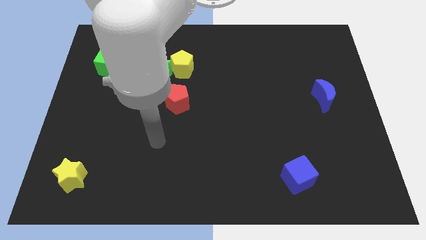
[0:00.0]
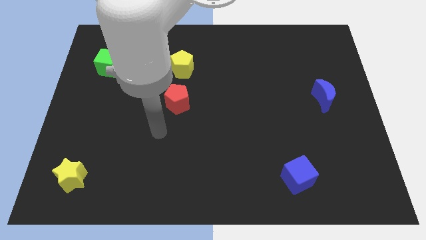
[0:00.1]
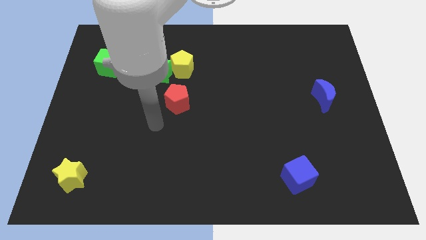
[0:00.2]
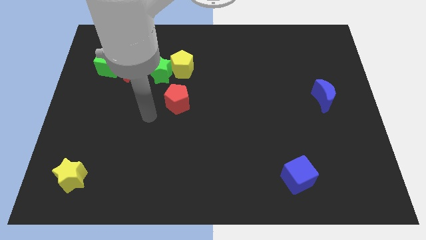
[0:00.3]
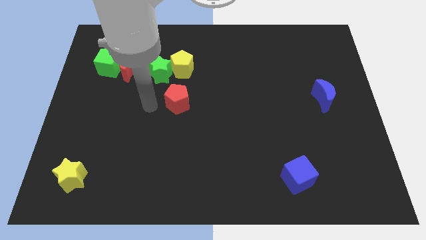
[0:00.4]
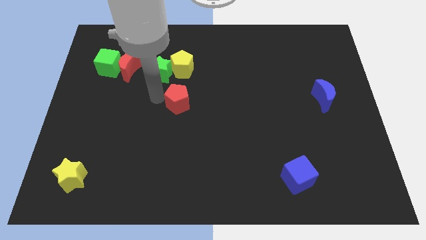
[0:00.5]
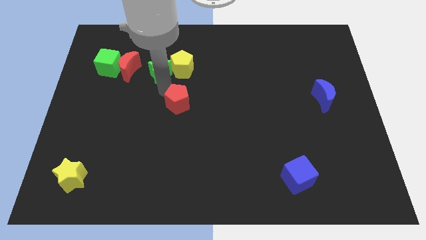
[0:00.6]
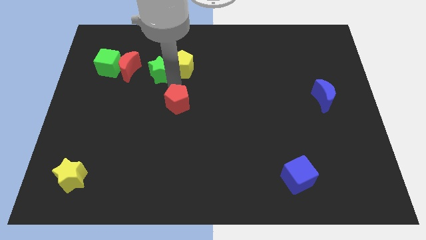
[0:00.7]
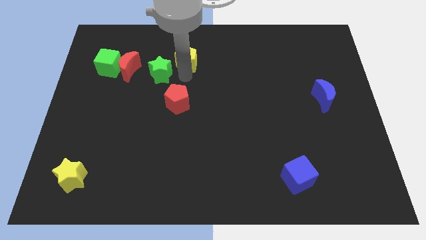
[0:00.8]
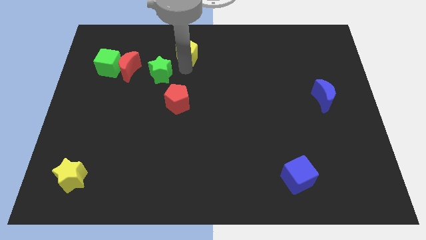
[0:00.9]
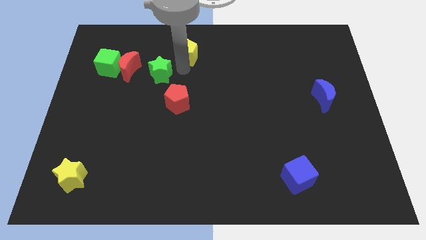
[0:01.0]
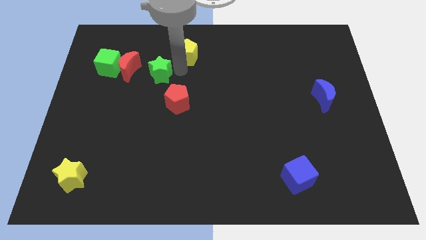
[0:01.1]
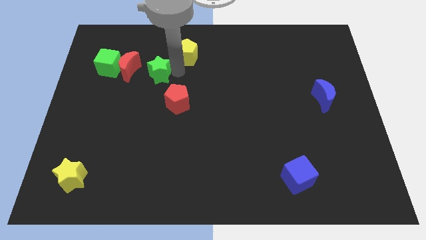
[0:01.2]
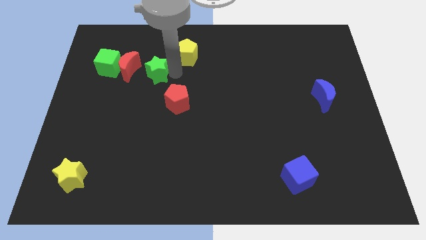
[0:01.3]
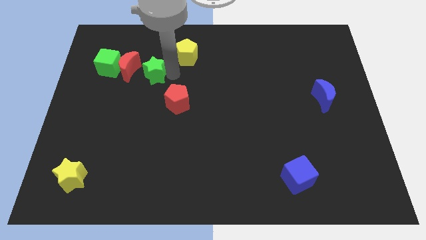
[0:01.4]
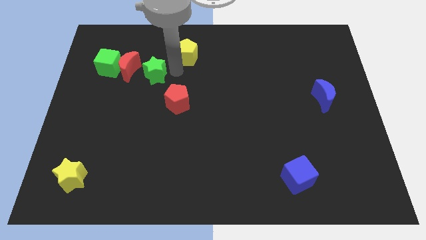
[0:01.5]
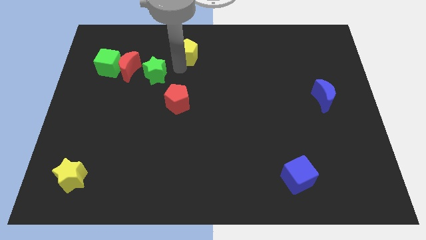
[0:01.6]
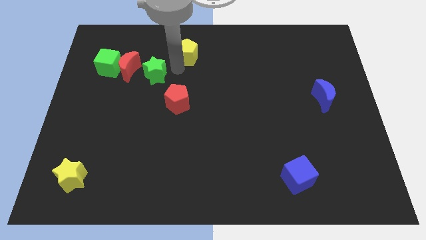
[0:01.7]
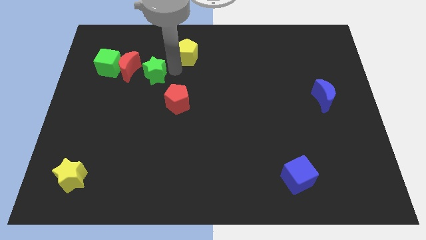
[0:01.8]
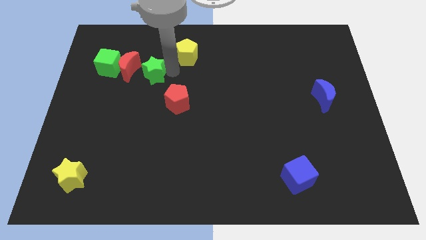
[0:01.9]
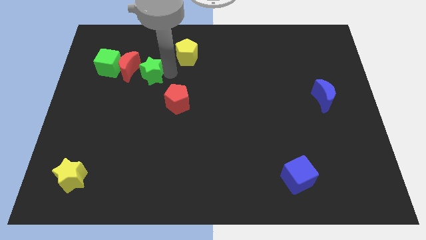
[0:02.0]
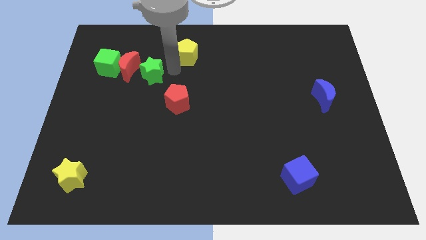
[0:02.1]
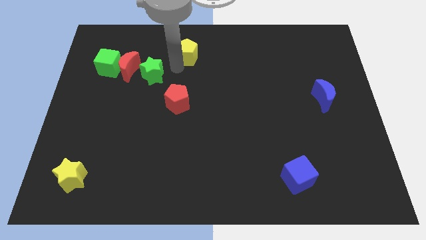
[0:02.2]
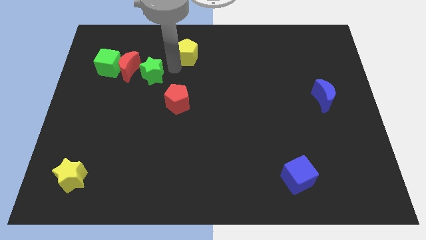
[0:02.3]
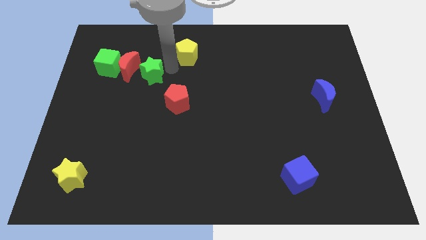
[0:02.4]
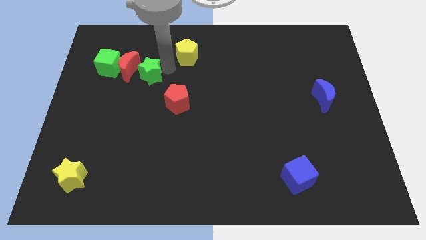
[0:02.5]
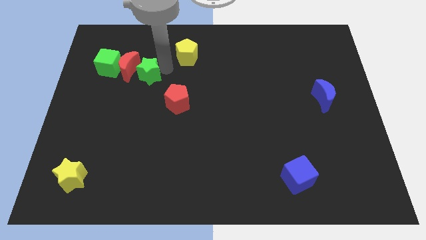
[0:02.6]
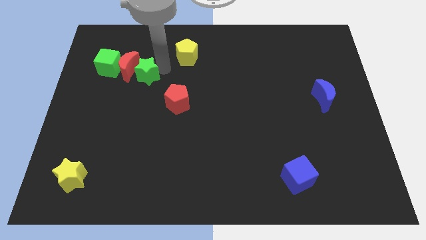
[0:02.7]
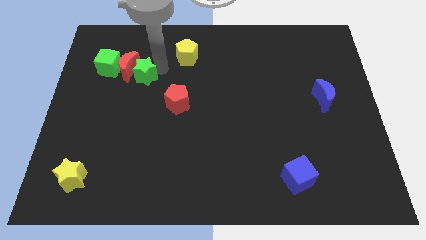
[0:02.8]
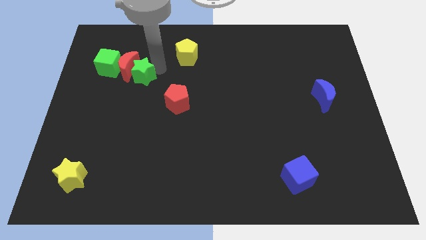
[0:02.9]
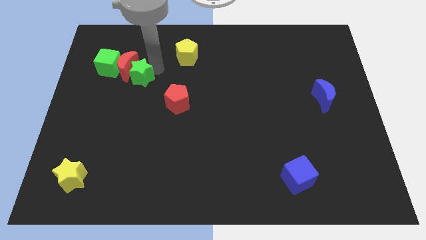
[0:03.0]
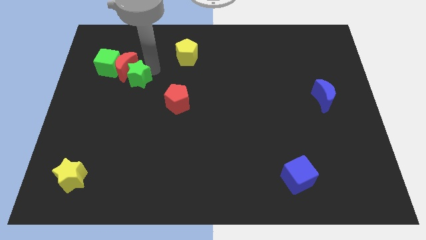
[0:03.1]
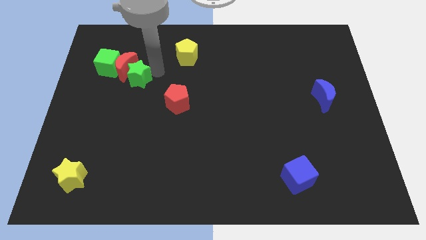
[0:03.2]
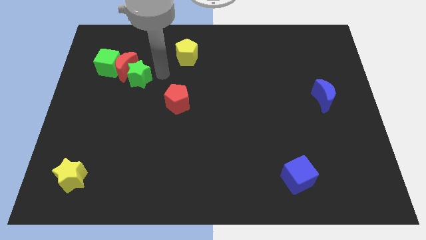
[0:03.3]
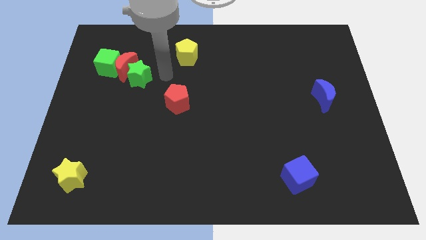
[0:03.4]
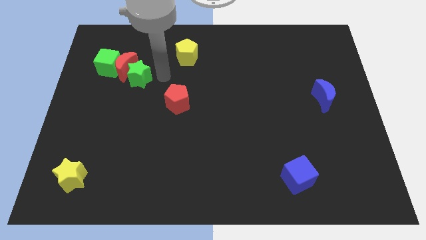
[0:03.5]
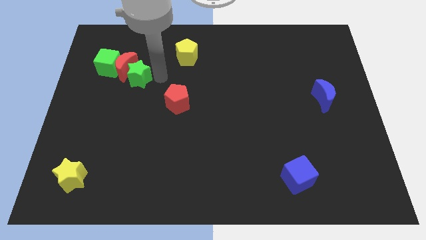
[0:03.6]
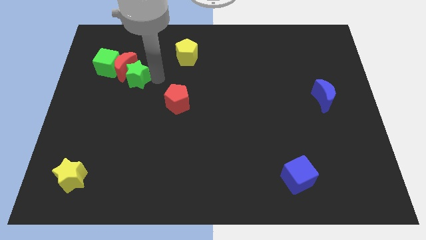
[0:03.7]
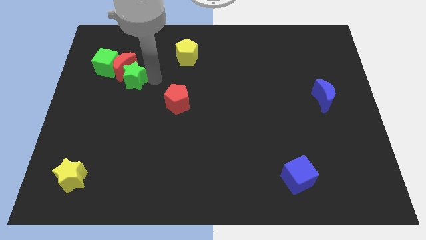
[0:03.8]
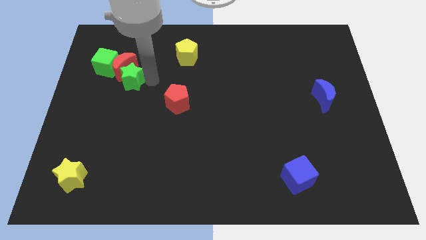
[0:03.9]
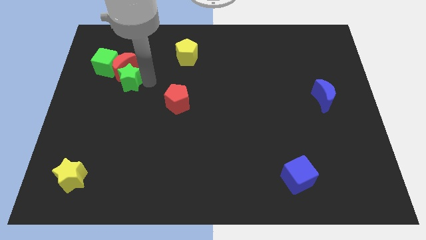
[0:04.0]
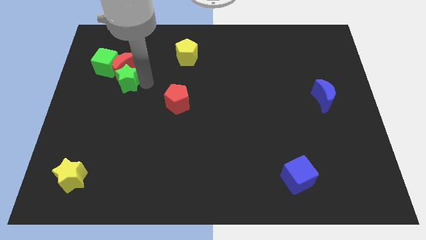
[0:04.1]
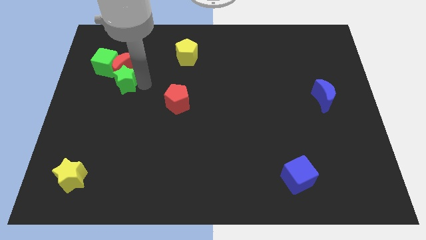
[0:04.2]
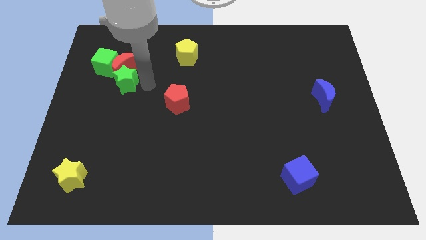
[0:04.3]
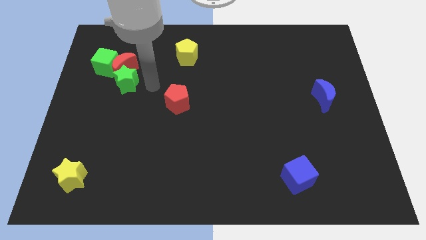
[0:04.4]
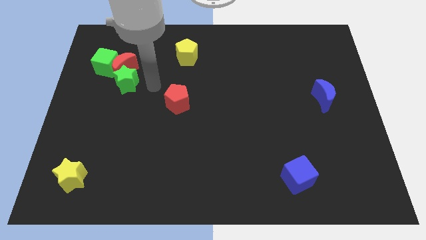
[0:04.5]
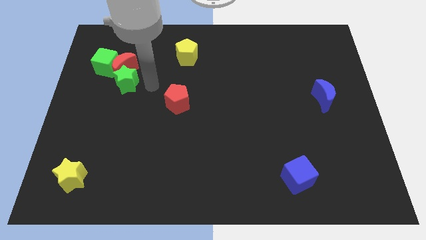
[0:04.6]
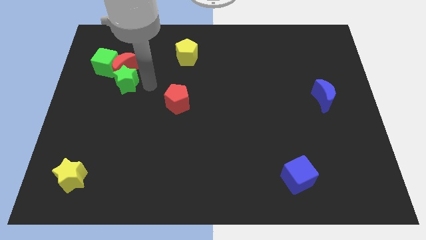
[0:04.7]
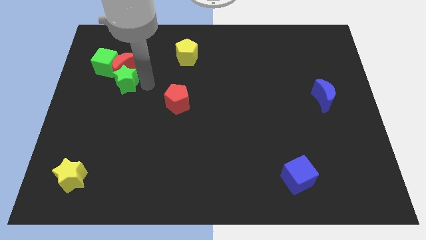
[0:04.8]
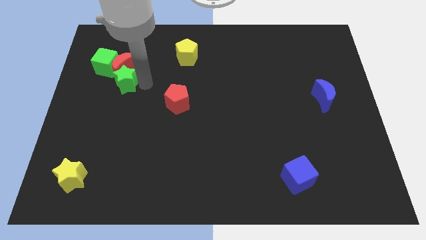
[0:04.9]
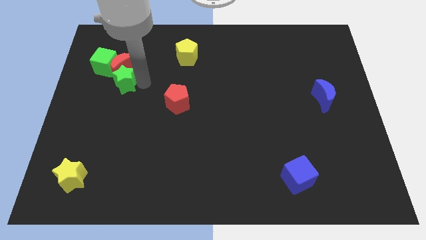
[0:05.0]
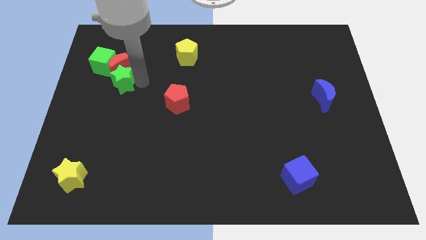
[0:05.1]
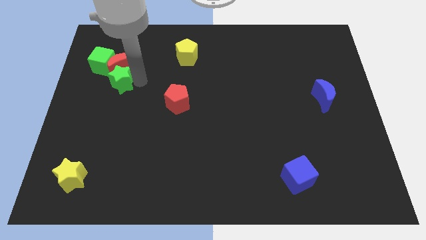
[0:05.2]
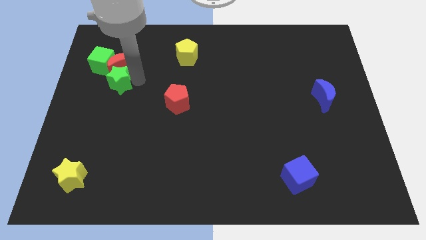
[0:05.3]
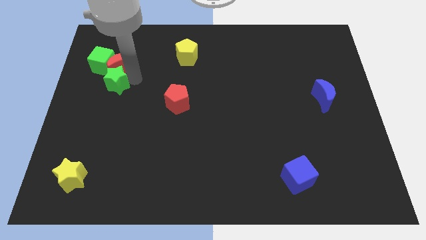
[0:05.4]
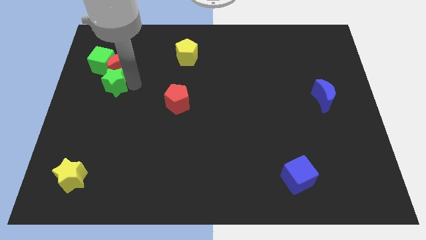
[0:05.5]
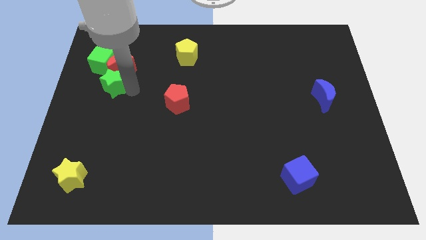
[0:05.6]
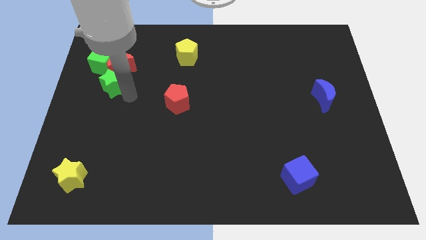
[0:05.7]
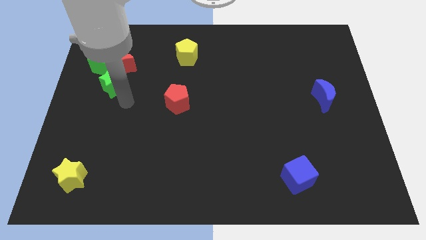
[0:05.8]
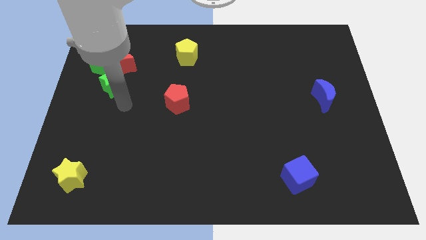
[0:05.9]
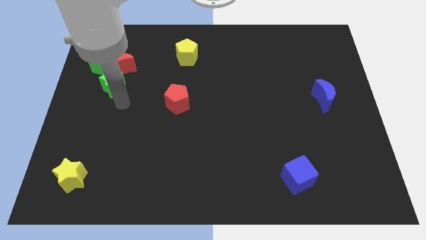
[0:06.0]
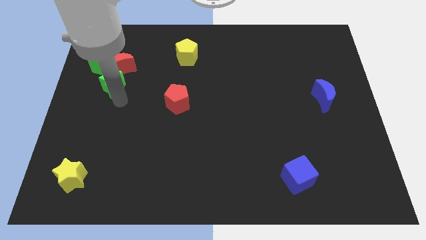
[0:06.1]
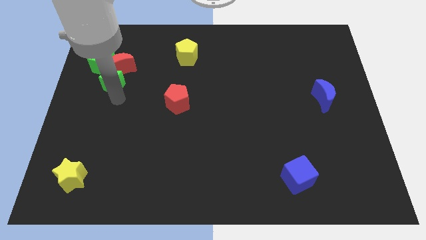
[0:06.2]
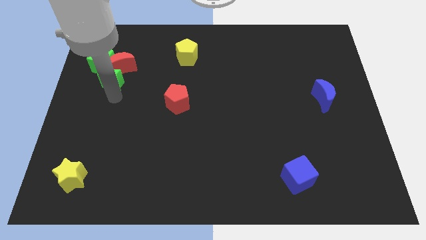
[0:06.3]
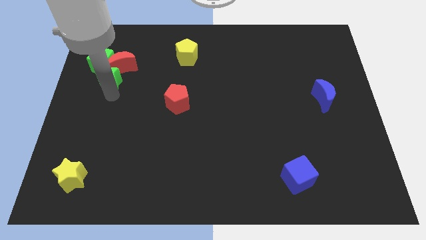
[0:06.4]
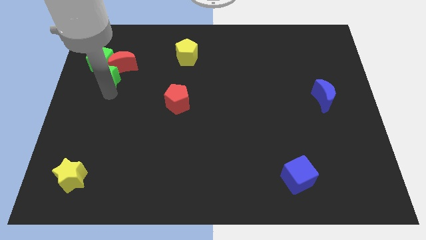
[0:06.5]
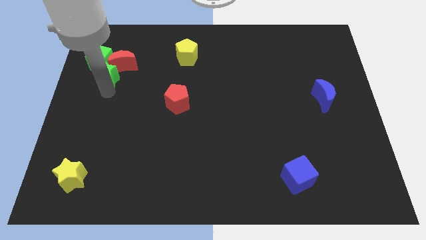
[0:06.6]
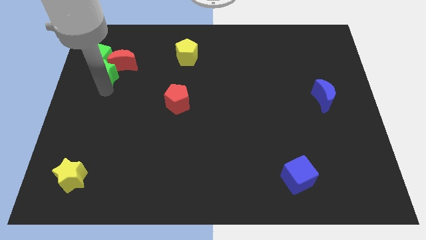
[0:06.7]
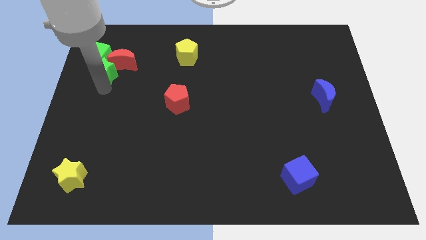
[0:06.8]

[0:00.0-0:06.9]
slide the green star next to the green cube

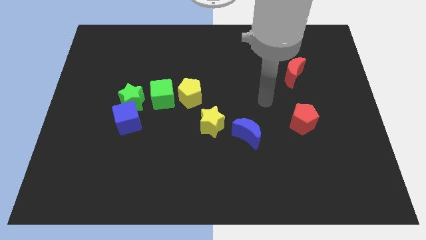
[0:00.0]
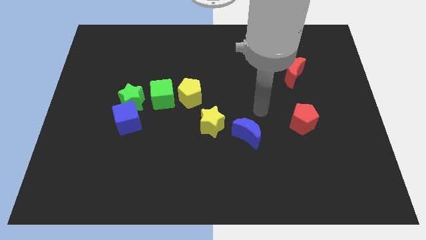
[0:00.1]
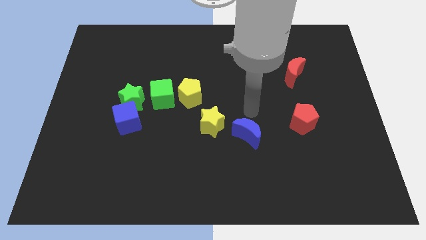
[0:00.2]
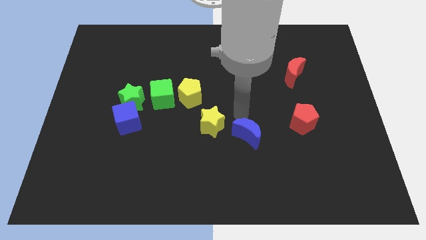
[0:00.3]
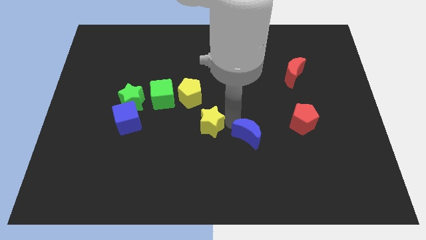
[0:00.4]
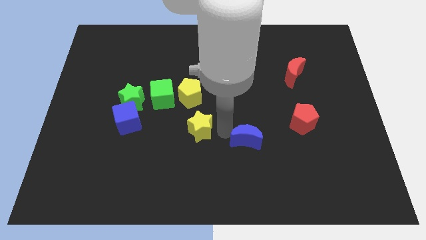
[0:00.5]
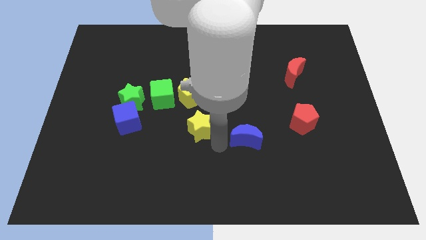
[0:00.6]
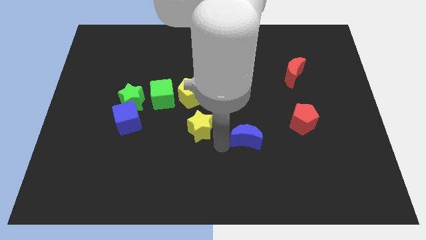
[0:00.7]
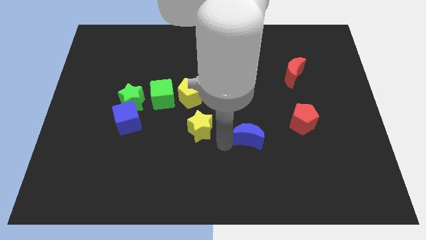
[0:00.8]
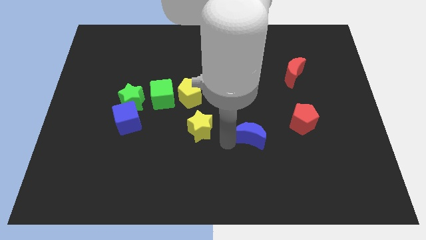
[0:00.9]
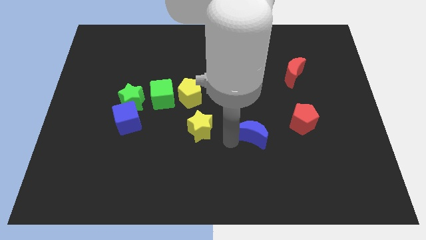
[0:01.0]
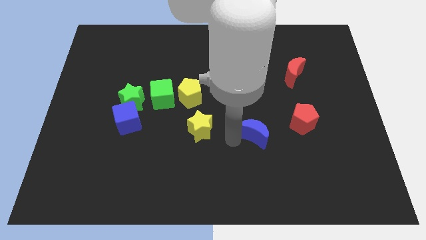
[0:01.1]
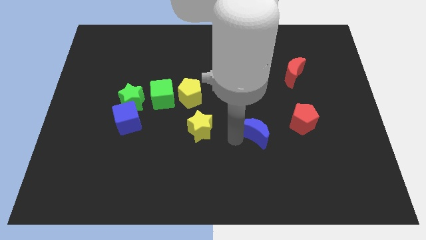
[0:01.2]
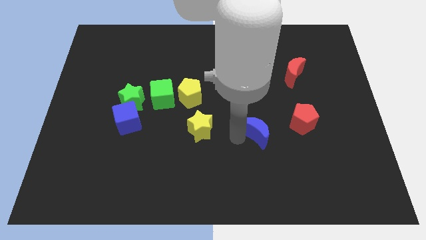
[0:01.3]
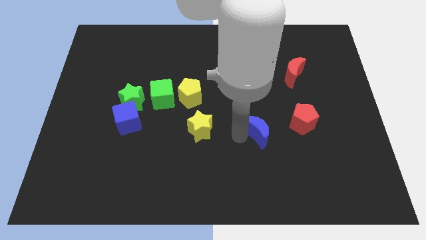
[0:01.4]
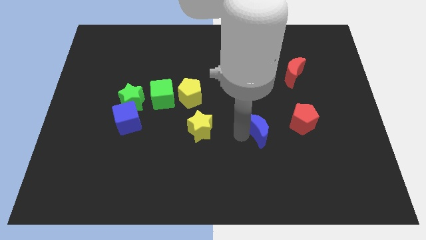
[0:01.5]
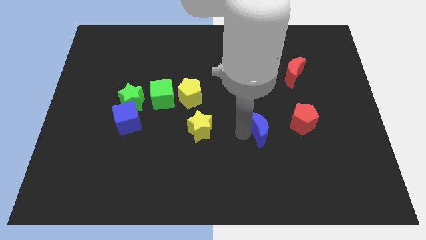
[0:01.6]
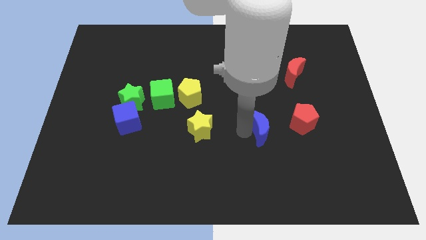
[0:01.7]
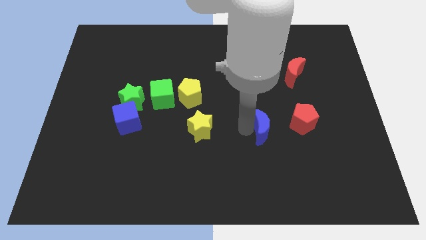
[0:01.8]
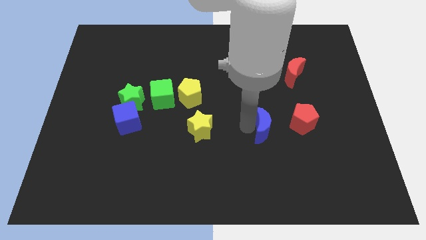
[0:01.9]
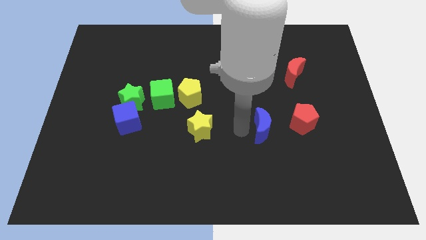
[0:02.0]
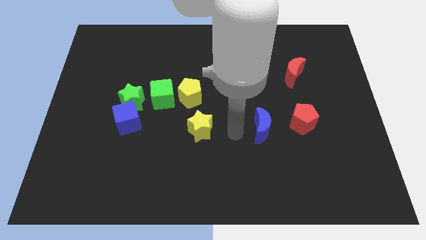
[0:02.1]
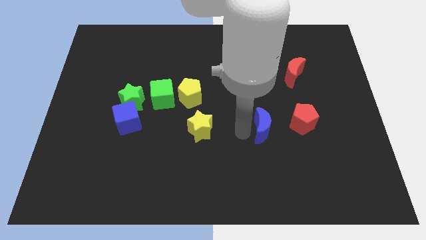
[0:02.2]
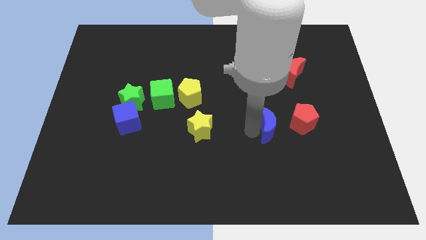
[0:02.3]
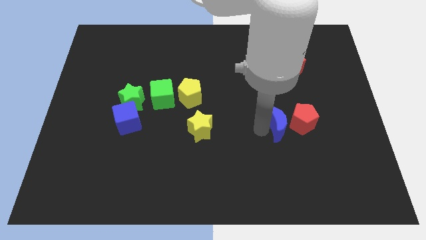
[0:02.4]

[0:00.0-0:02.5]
move the blue moon to the red pentagon
